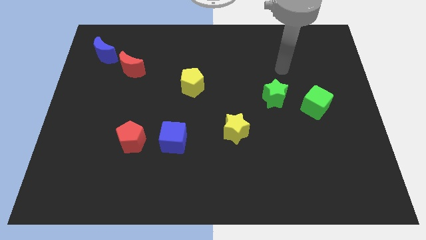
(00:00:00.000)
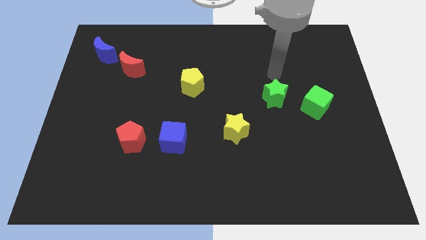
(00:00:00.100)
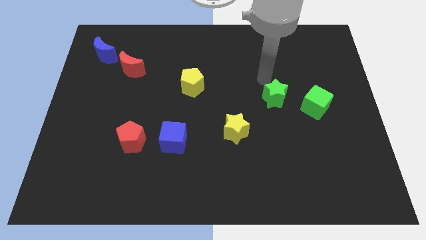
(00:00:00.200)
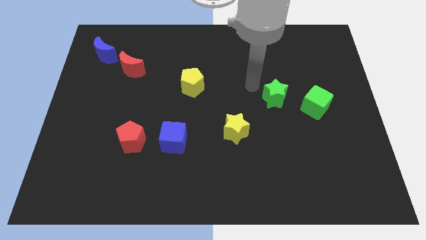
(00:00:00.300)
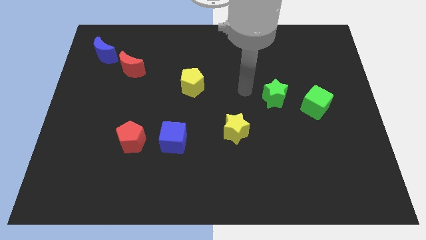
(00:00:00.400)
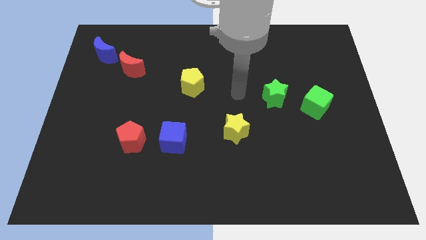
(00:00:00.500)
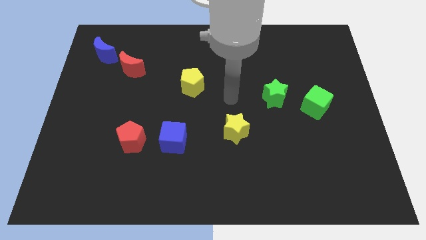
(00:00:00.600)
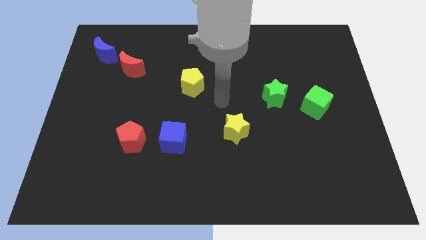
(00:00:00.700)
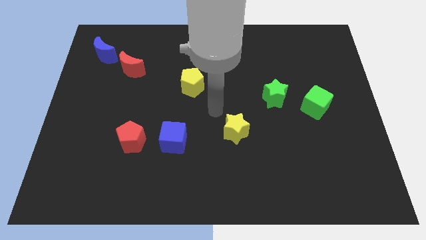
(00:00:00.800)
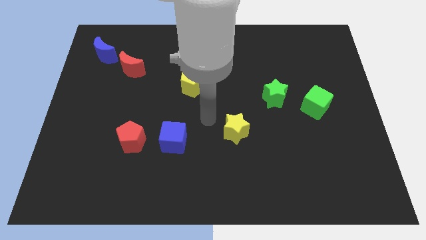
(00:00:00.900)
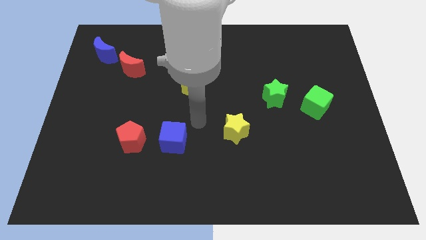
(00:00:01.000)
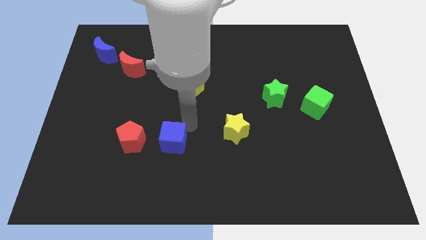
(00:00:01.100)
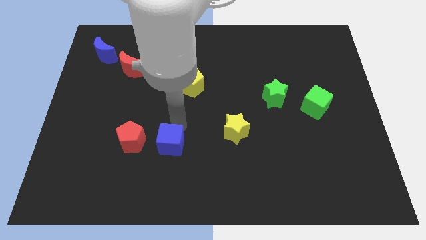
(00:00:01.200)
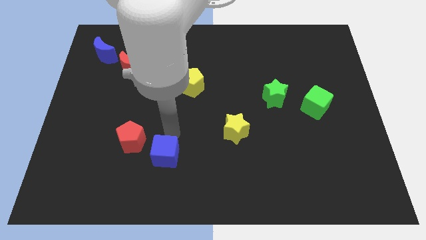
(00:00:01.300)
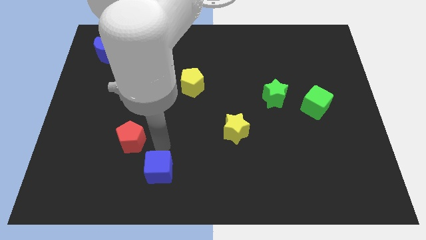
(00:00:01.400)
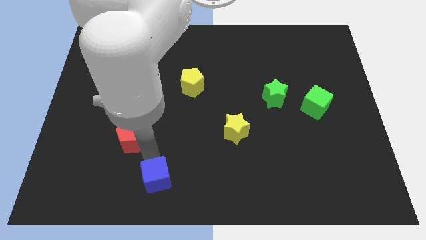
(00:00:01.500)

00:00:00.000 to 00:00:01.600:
pull the red pentagon apart from the blue cube

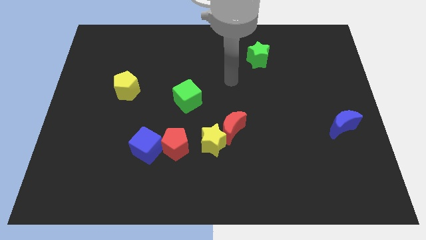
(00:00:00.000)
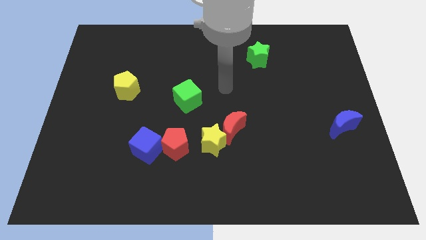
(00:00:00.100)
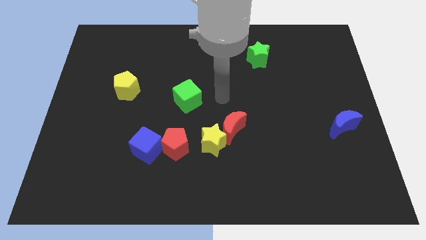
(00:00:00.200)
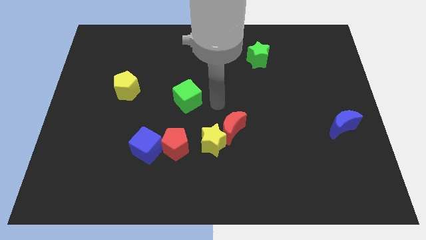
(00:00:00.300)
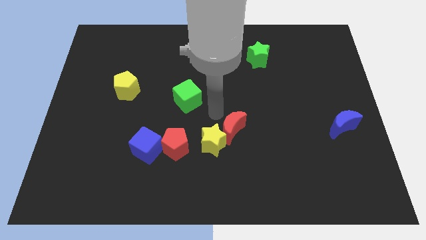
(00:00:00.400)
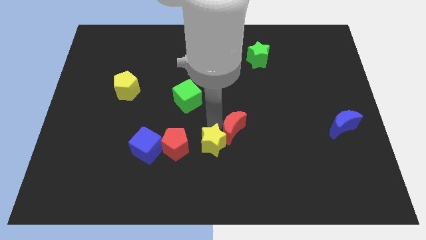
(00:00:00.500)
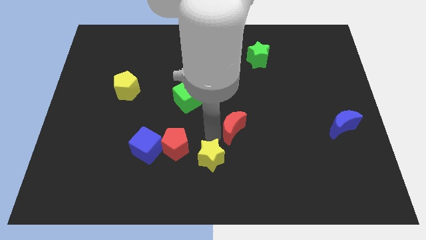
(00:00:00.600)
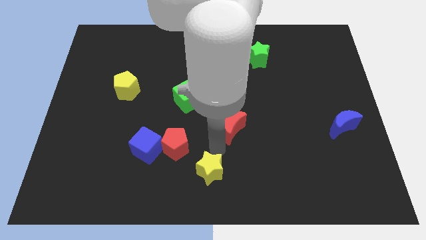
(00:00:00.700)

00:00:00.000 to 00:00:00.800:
pull the red moon apart from the yellow star

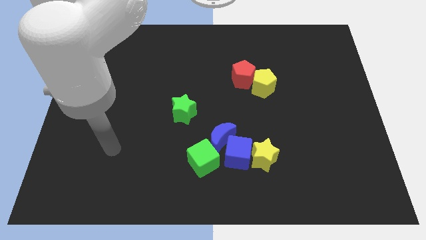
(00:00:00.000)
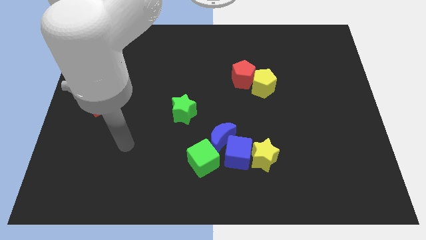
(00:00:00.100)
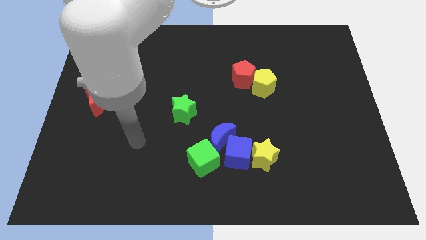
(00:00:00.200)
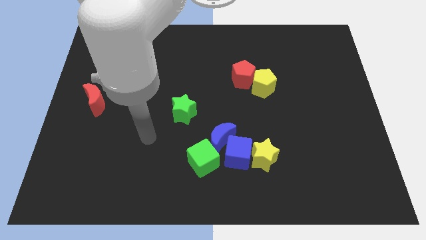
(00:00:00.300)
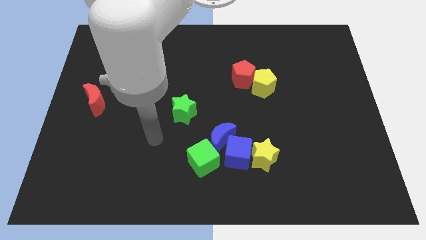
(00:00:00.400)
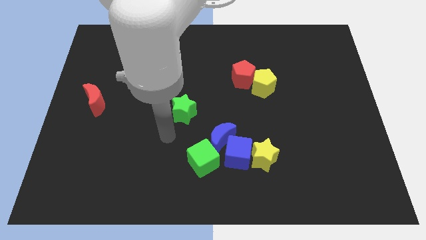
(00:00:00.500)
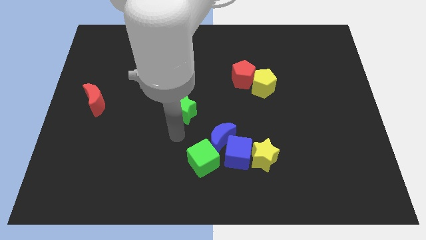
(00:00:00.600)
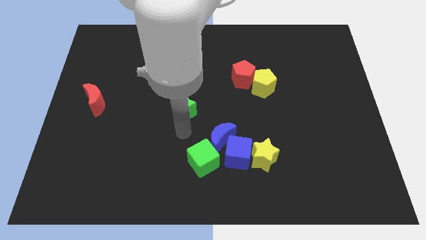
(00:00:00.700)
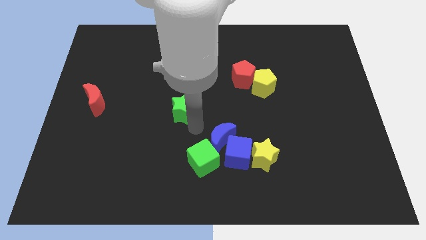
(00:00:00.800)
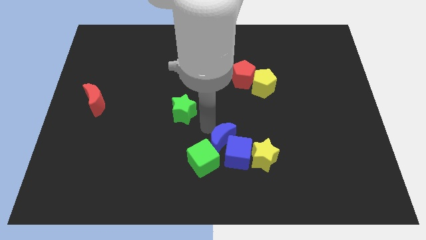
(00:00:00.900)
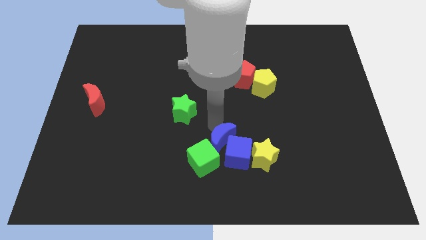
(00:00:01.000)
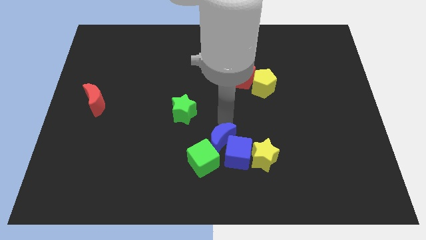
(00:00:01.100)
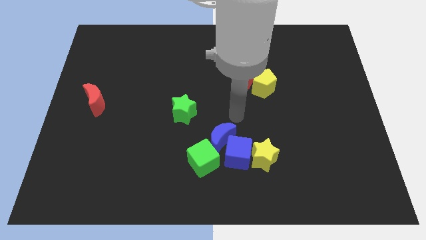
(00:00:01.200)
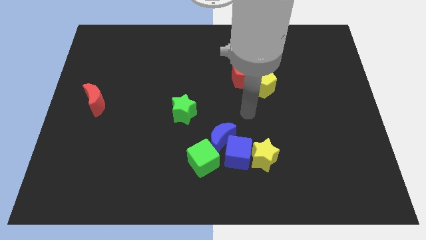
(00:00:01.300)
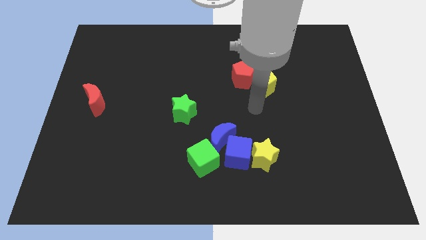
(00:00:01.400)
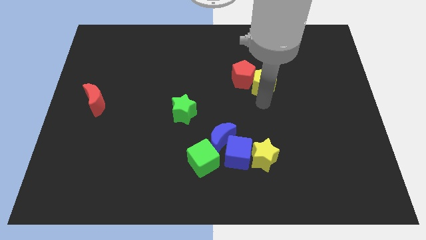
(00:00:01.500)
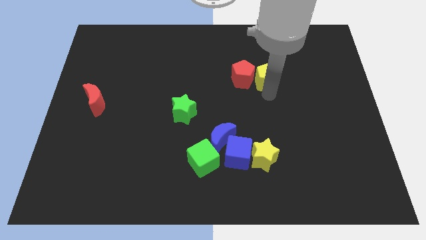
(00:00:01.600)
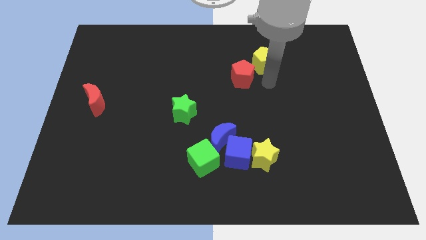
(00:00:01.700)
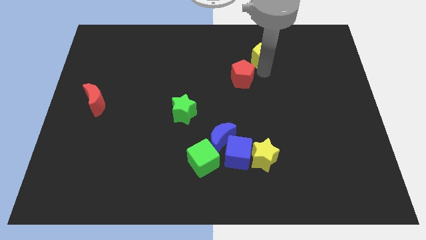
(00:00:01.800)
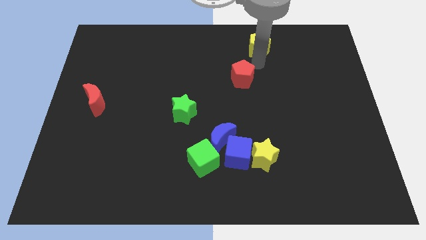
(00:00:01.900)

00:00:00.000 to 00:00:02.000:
pull the red pentagon apart from the yellow pentagon

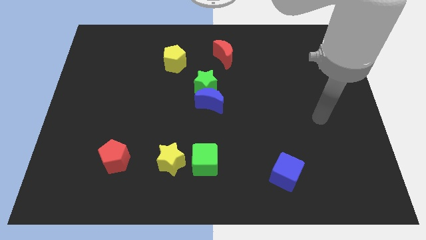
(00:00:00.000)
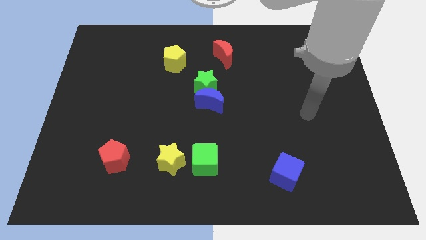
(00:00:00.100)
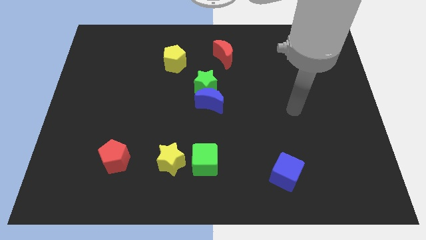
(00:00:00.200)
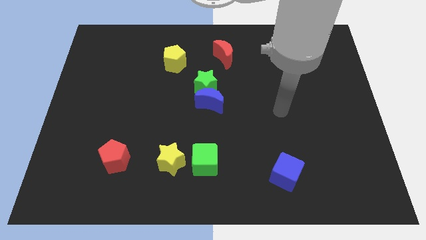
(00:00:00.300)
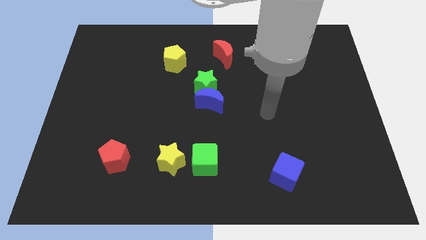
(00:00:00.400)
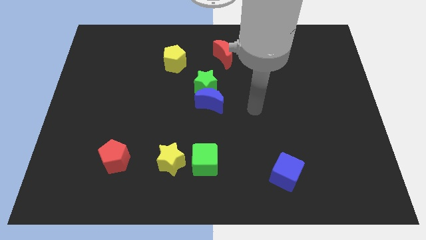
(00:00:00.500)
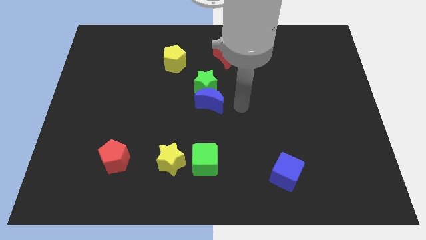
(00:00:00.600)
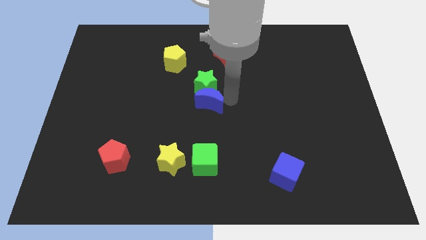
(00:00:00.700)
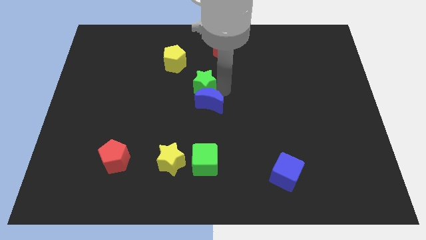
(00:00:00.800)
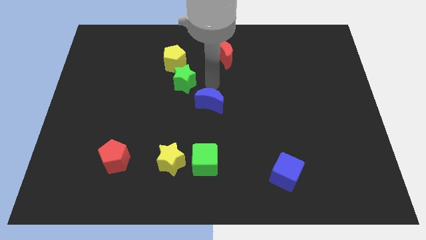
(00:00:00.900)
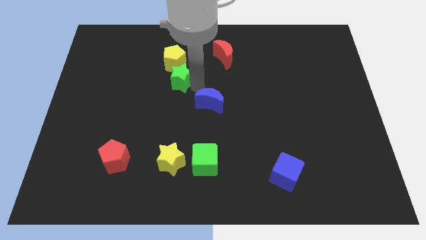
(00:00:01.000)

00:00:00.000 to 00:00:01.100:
move the blue moon away from the green star

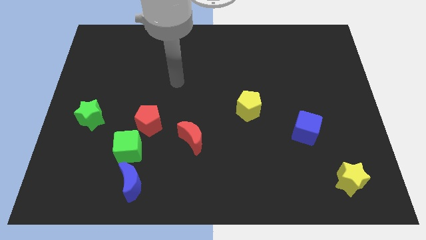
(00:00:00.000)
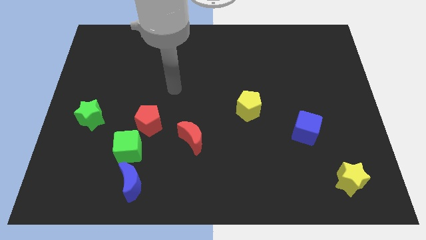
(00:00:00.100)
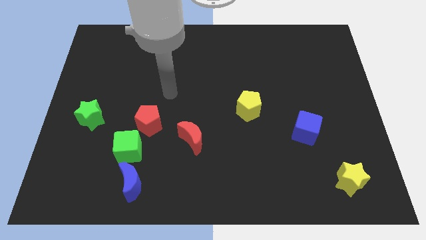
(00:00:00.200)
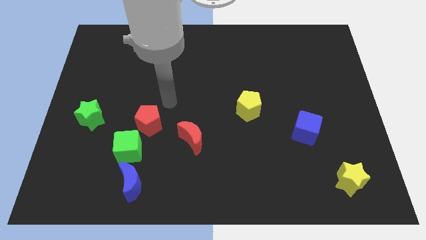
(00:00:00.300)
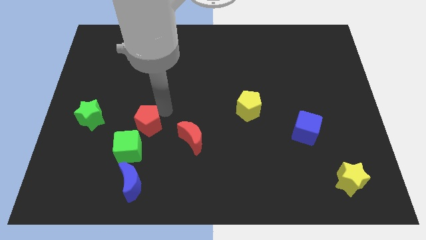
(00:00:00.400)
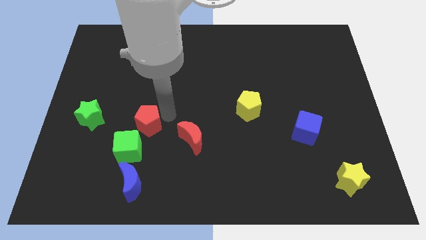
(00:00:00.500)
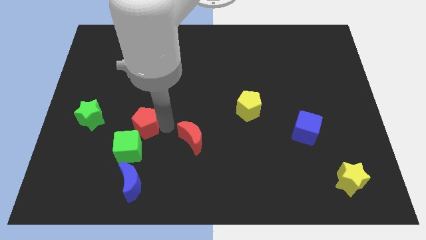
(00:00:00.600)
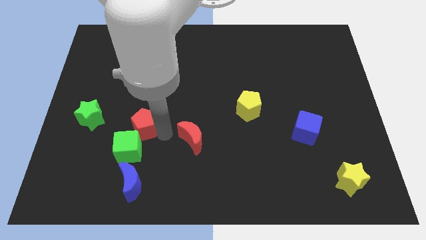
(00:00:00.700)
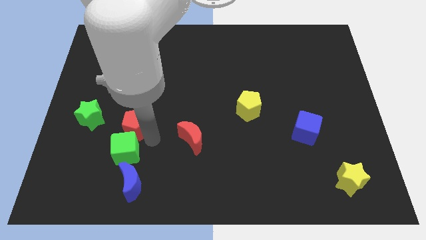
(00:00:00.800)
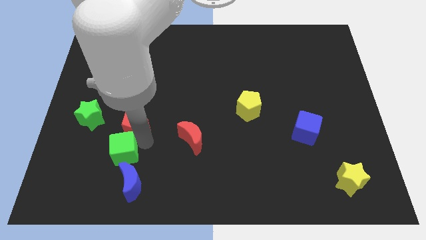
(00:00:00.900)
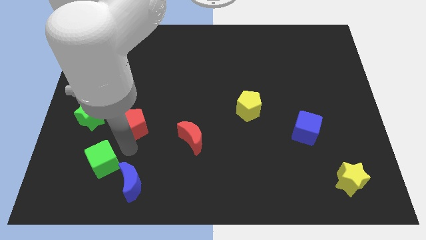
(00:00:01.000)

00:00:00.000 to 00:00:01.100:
separate the red pentagon from the green cube

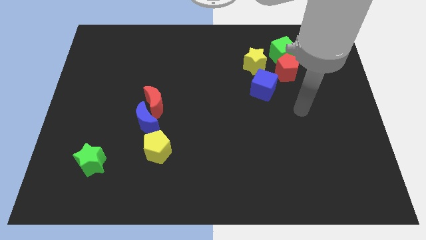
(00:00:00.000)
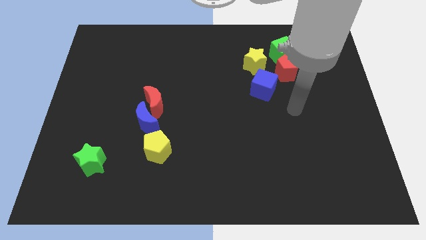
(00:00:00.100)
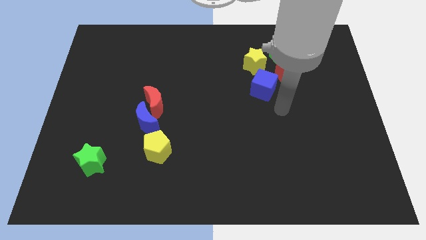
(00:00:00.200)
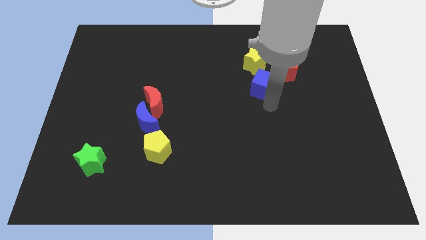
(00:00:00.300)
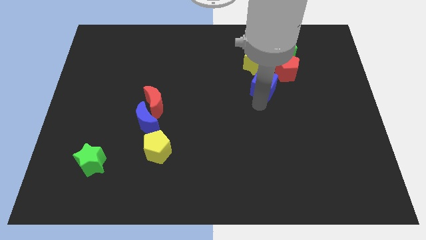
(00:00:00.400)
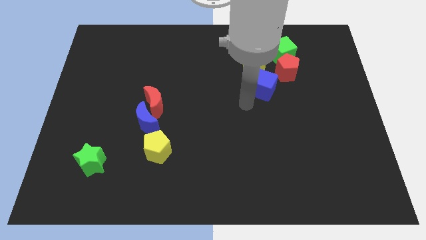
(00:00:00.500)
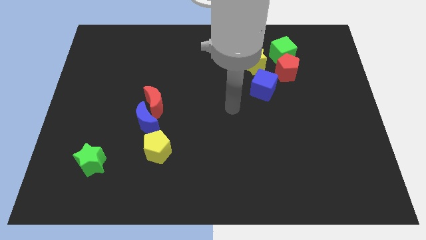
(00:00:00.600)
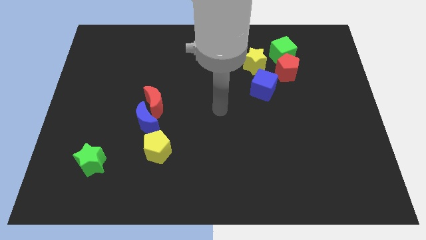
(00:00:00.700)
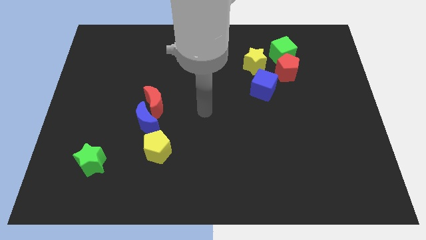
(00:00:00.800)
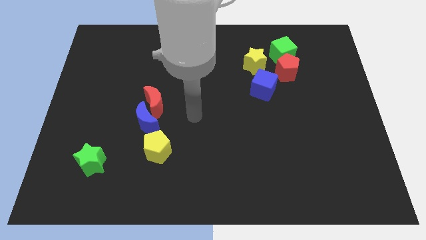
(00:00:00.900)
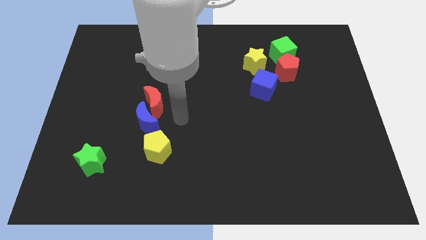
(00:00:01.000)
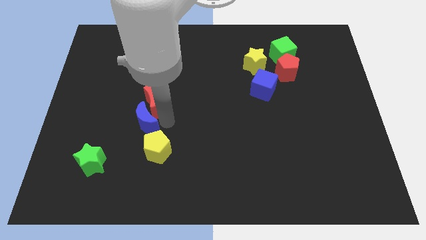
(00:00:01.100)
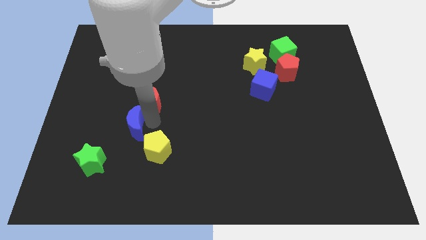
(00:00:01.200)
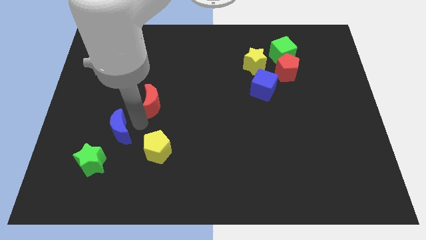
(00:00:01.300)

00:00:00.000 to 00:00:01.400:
move the red moon away from the blue moon

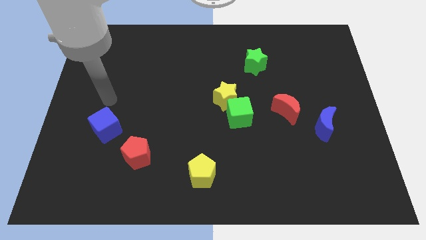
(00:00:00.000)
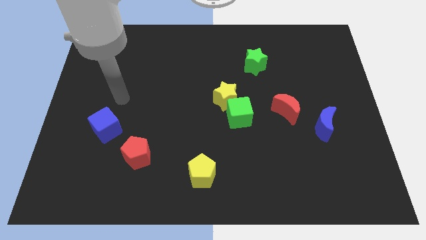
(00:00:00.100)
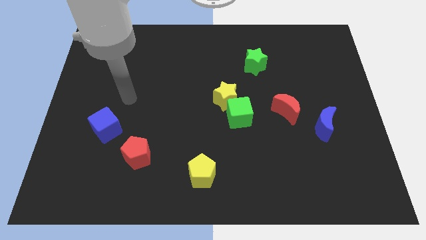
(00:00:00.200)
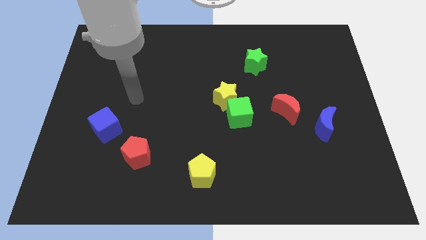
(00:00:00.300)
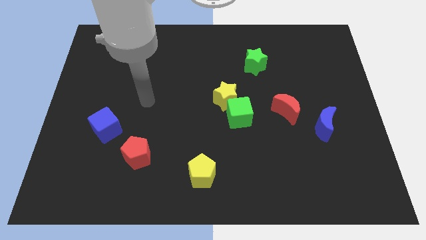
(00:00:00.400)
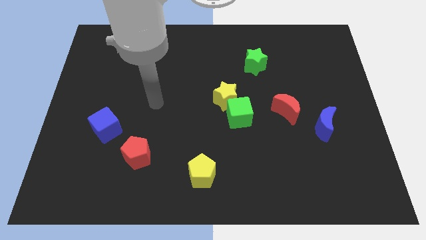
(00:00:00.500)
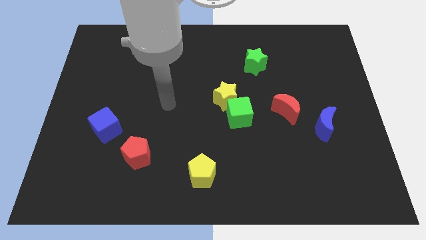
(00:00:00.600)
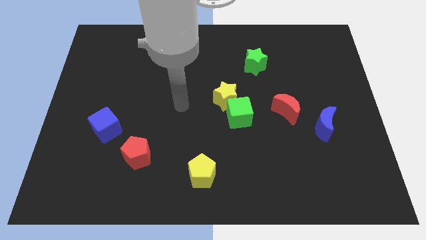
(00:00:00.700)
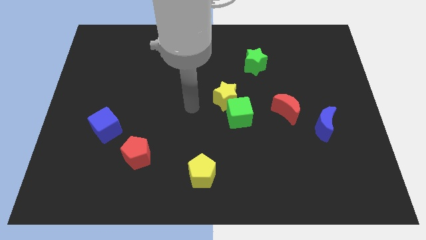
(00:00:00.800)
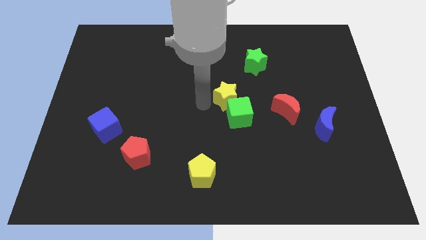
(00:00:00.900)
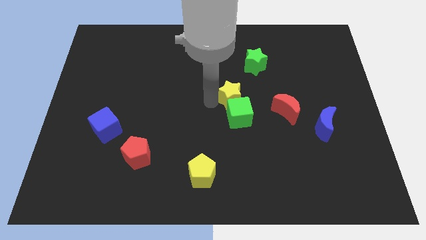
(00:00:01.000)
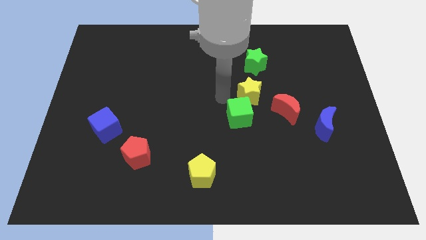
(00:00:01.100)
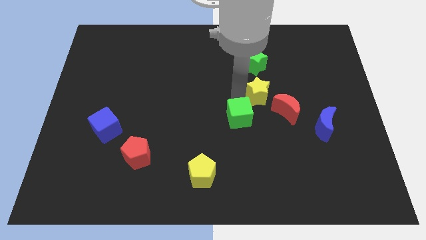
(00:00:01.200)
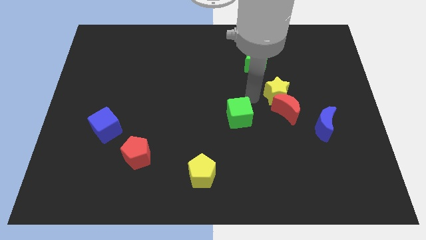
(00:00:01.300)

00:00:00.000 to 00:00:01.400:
pull the green cube apart from the yellow star
